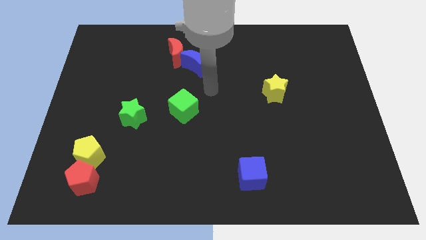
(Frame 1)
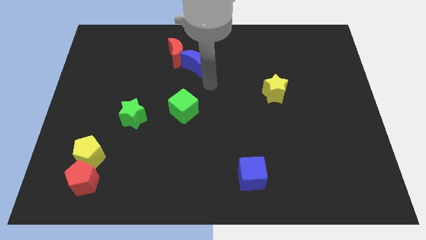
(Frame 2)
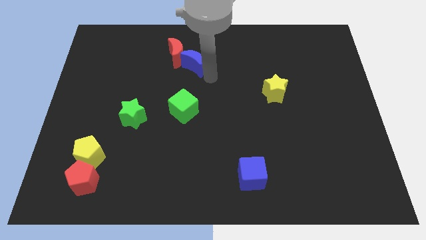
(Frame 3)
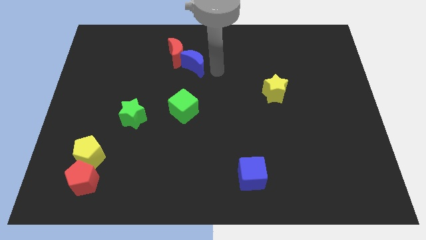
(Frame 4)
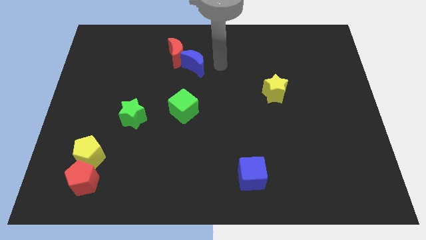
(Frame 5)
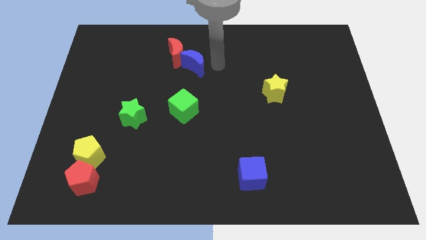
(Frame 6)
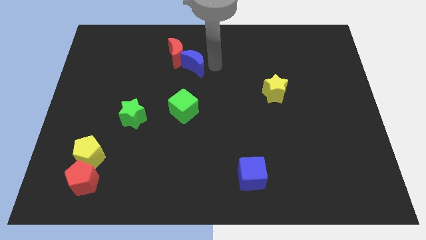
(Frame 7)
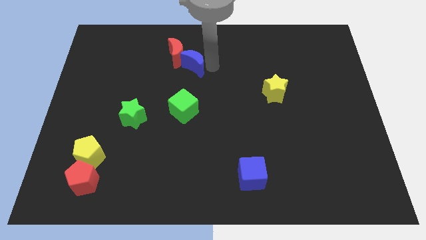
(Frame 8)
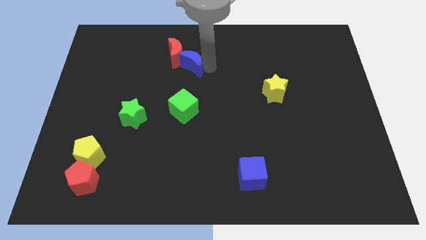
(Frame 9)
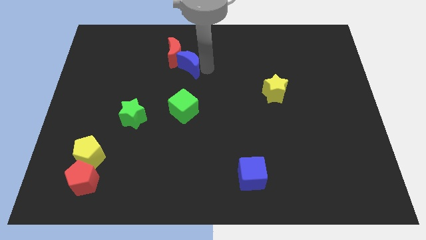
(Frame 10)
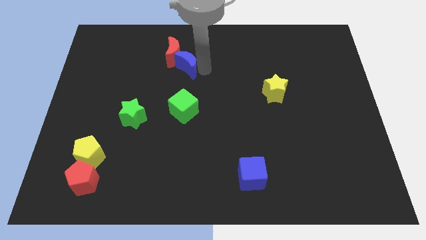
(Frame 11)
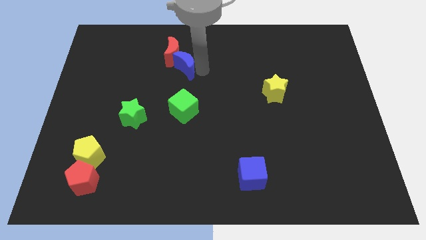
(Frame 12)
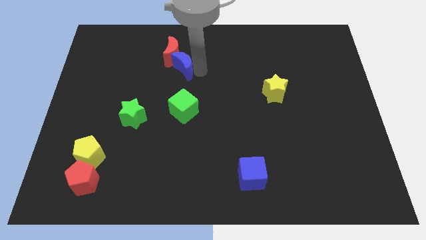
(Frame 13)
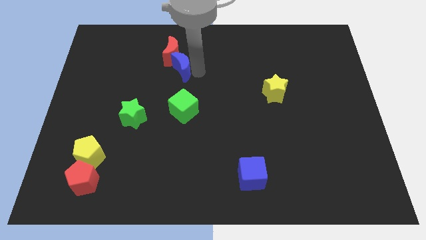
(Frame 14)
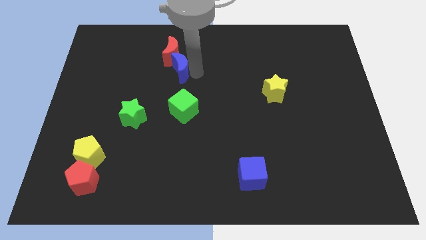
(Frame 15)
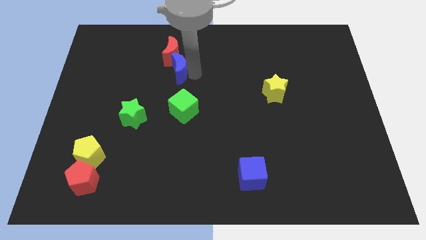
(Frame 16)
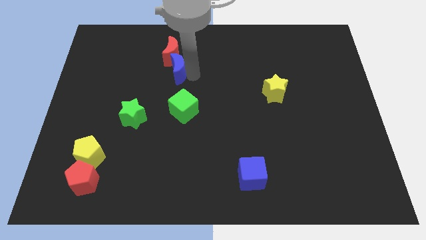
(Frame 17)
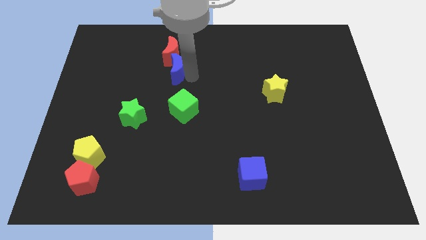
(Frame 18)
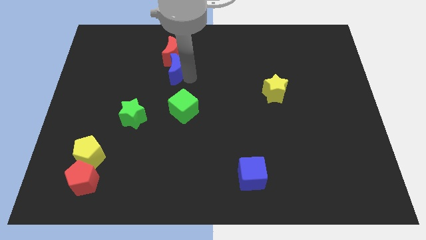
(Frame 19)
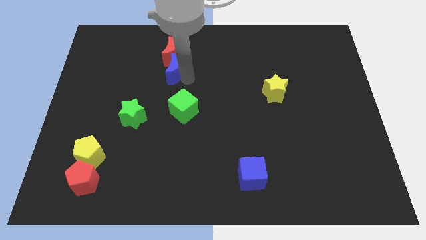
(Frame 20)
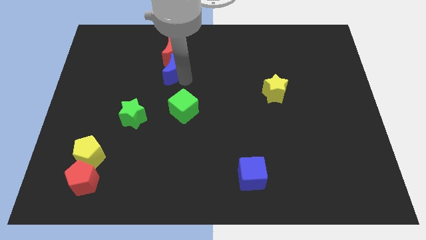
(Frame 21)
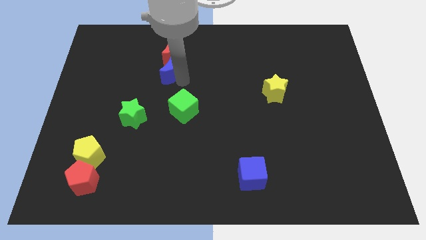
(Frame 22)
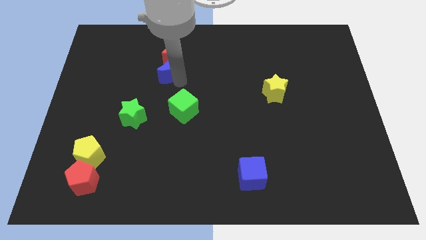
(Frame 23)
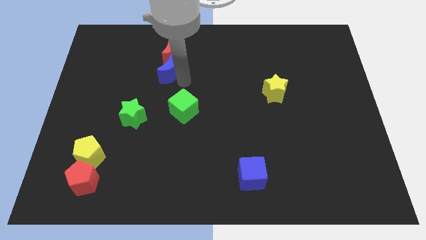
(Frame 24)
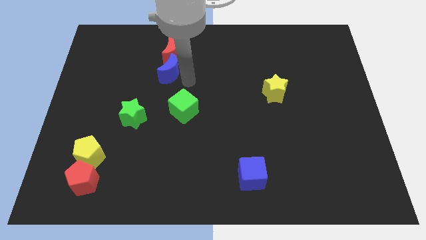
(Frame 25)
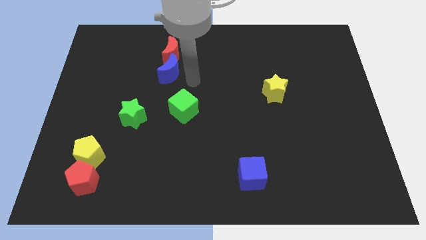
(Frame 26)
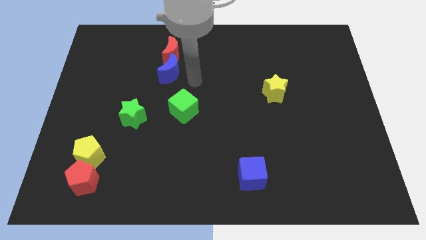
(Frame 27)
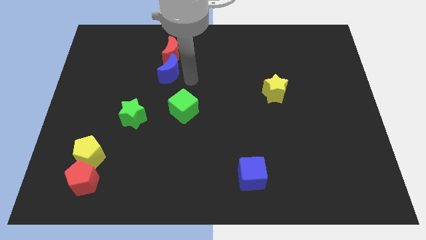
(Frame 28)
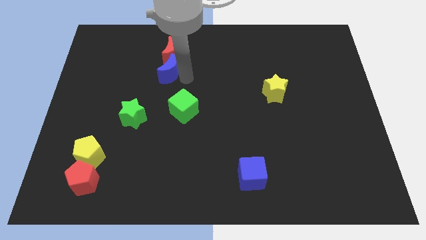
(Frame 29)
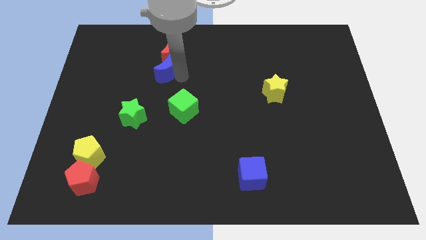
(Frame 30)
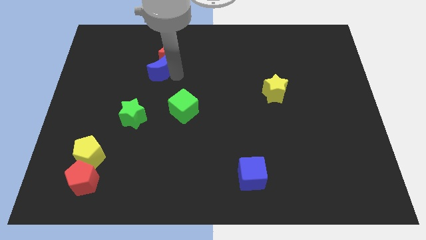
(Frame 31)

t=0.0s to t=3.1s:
move the blue moon somewhat to the left

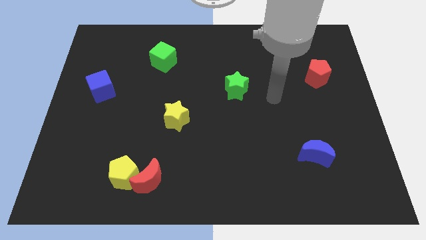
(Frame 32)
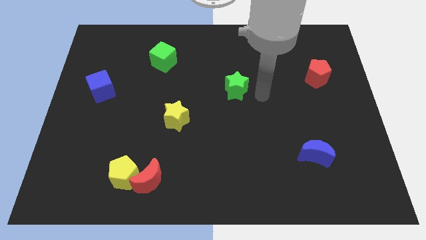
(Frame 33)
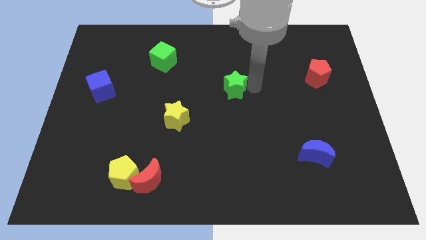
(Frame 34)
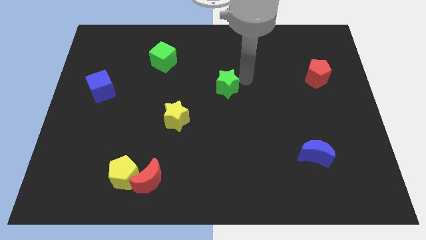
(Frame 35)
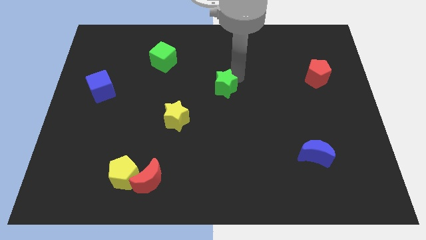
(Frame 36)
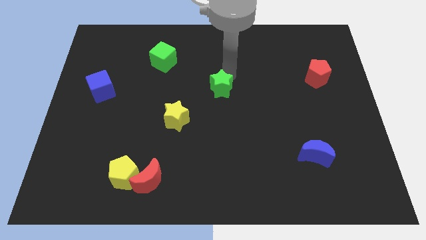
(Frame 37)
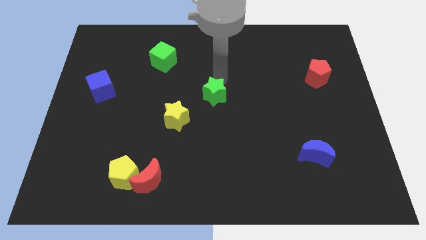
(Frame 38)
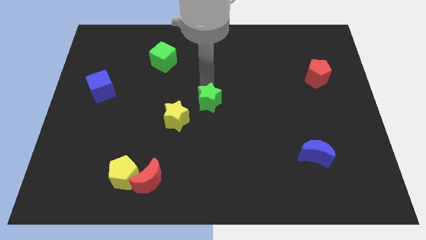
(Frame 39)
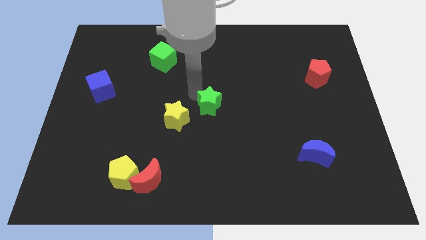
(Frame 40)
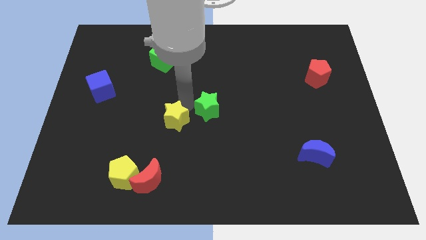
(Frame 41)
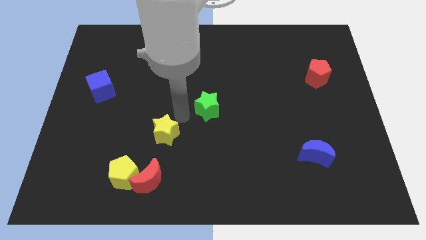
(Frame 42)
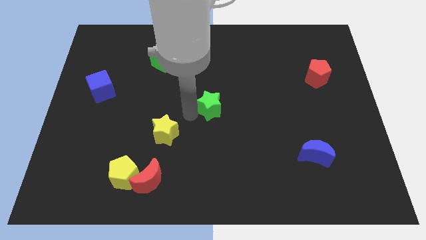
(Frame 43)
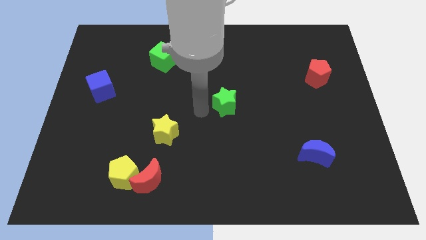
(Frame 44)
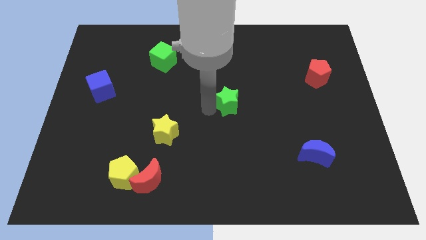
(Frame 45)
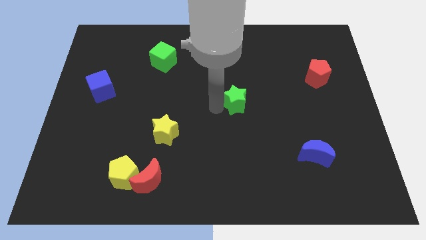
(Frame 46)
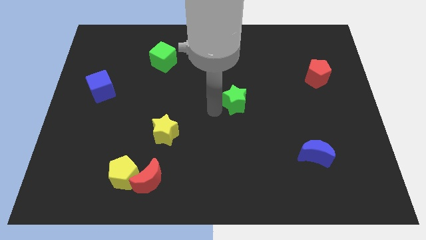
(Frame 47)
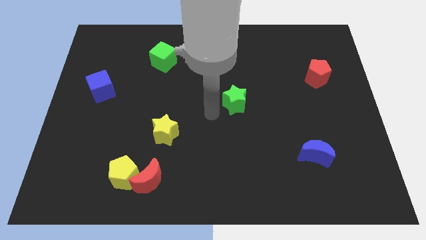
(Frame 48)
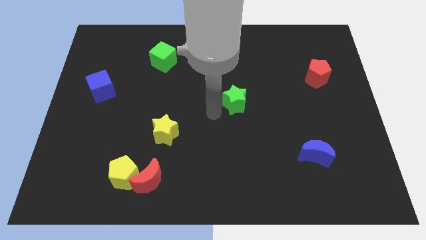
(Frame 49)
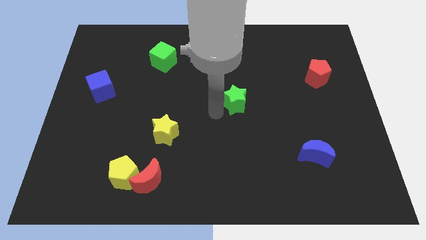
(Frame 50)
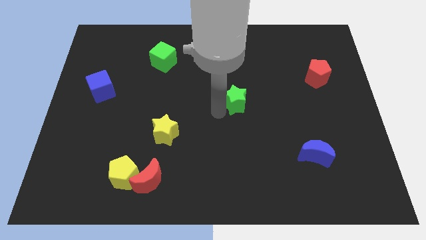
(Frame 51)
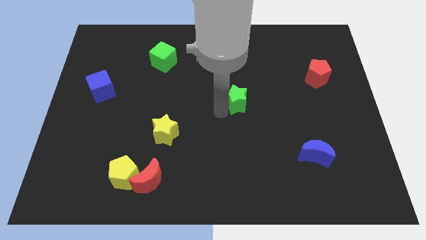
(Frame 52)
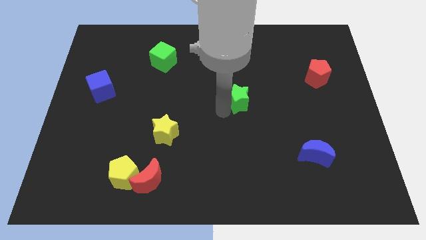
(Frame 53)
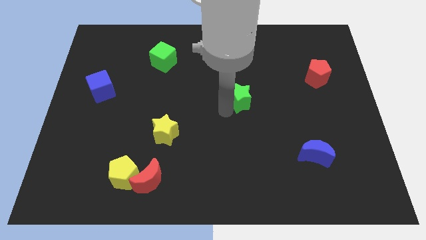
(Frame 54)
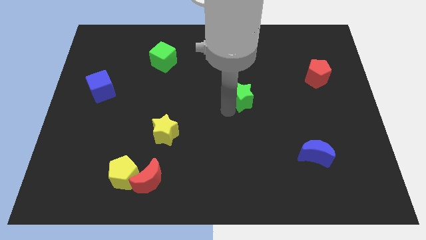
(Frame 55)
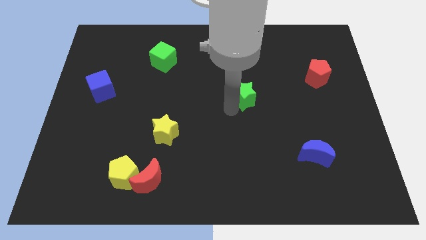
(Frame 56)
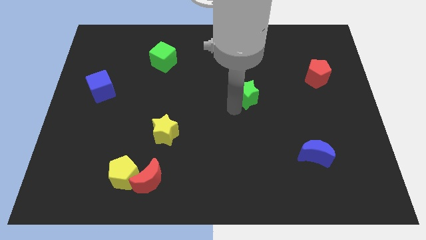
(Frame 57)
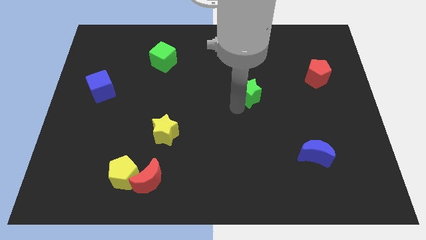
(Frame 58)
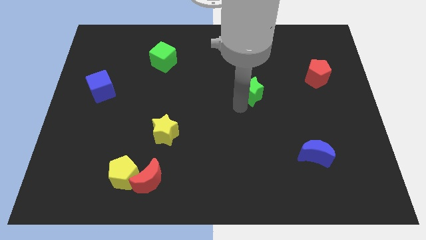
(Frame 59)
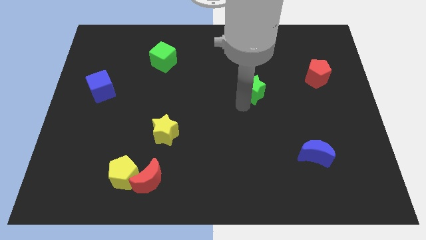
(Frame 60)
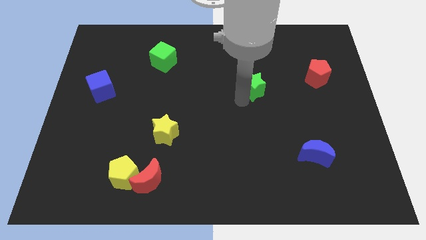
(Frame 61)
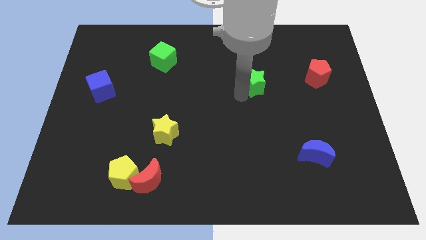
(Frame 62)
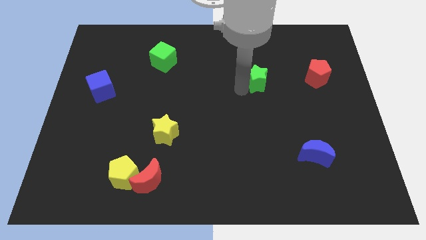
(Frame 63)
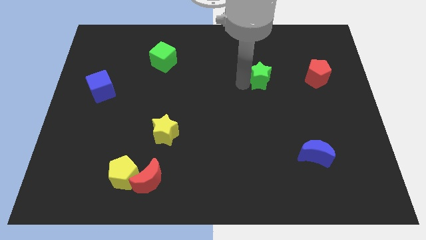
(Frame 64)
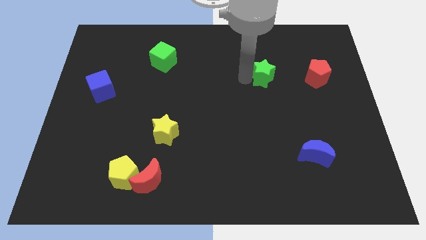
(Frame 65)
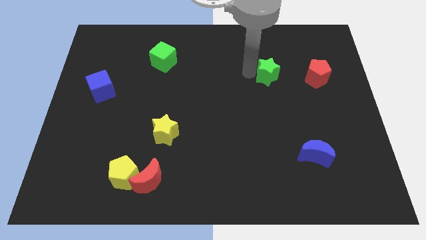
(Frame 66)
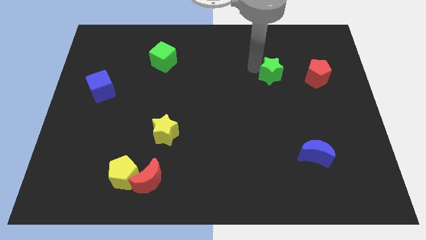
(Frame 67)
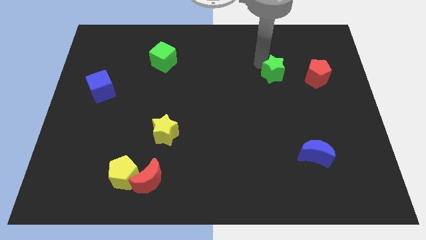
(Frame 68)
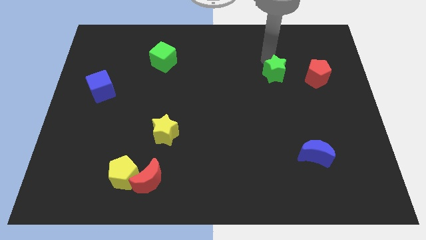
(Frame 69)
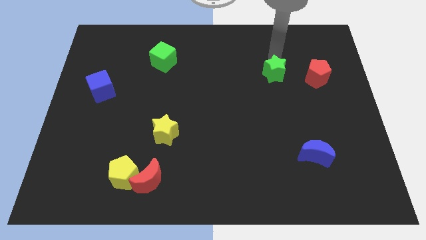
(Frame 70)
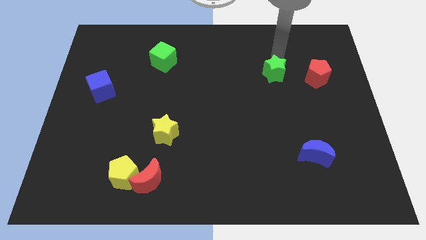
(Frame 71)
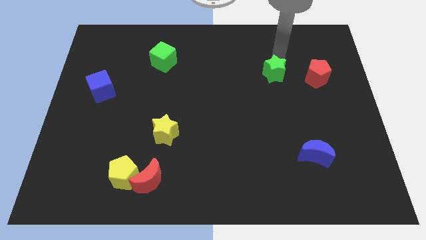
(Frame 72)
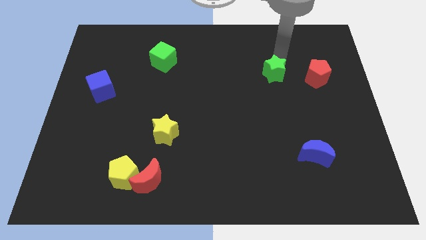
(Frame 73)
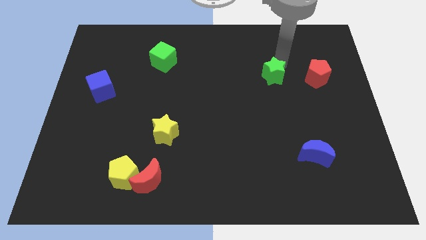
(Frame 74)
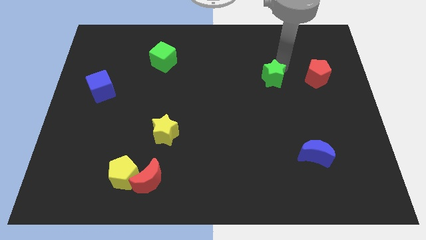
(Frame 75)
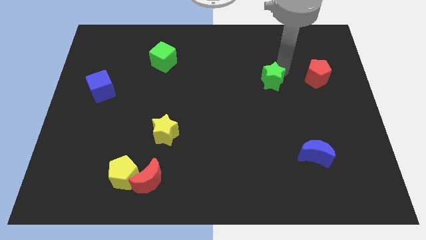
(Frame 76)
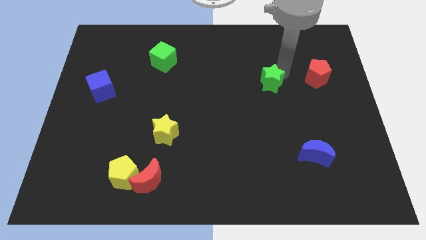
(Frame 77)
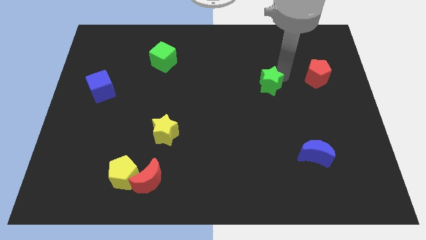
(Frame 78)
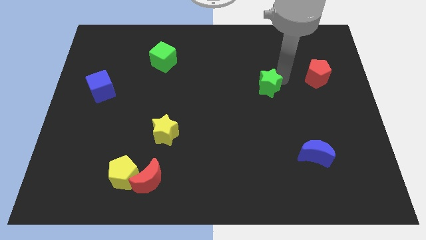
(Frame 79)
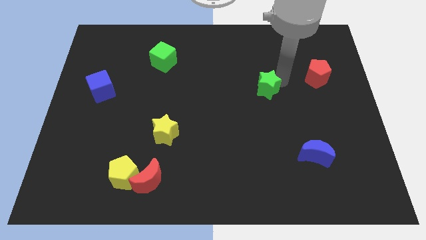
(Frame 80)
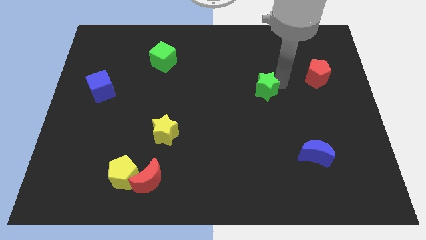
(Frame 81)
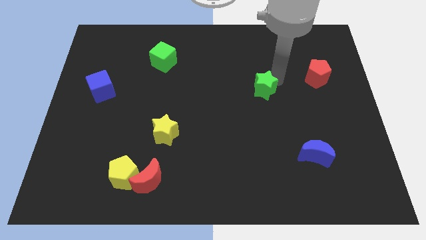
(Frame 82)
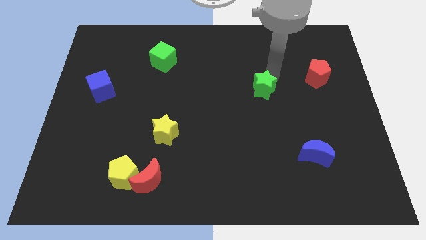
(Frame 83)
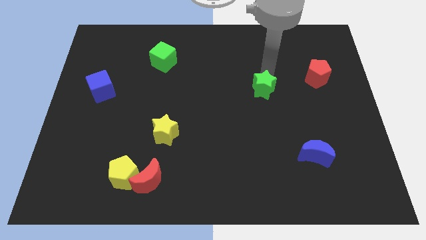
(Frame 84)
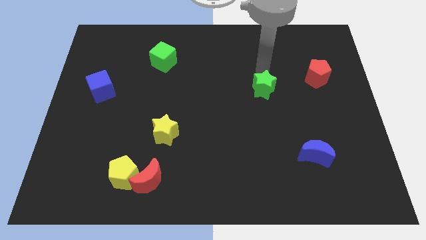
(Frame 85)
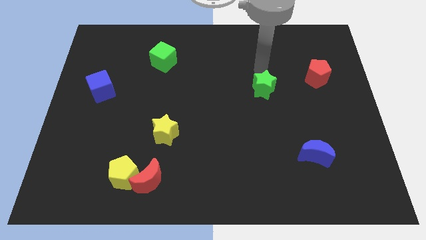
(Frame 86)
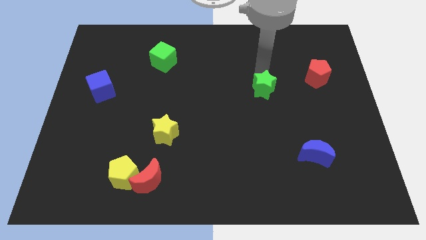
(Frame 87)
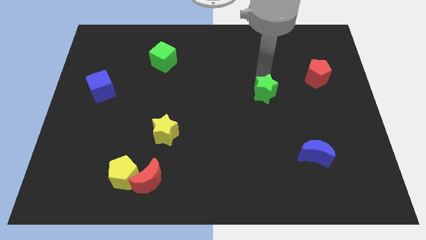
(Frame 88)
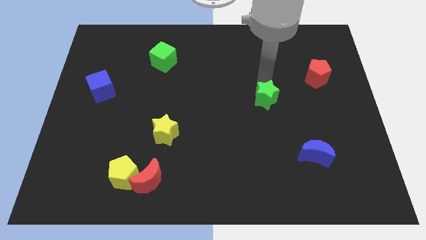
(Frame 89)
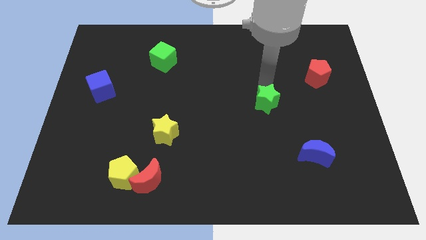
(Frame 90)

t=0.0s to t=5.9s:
push the green star slightly downwards and to the right
